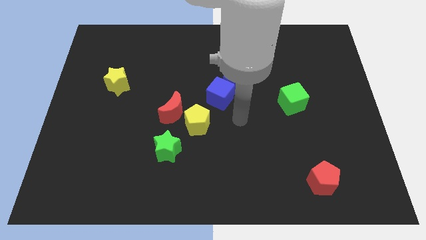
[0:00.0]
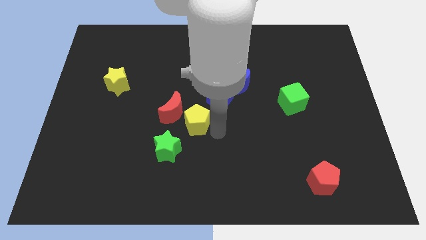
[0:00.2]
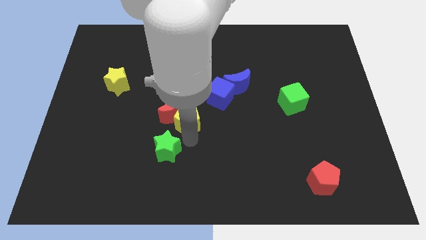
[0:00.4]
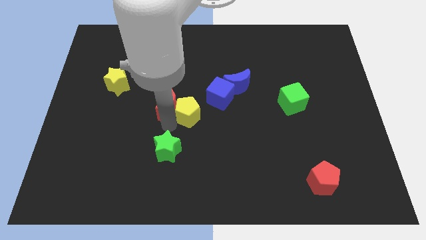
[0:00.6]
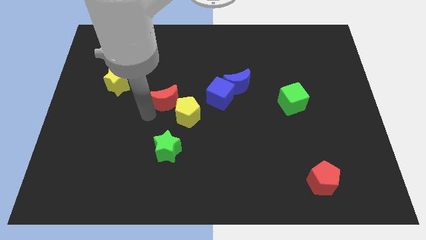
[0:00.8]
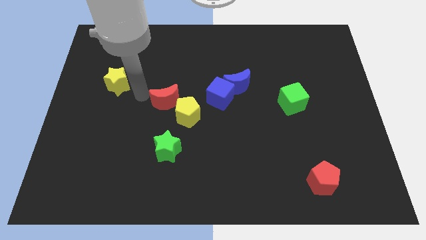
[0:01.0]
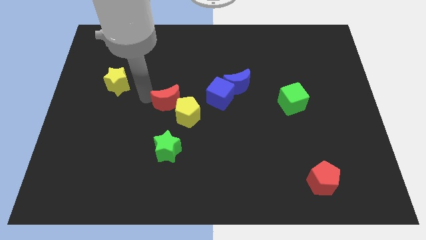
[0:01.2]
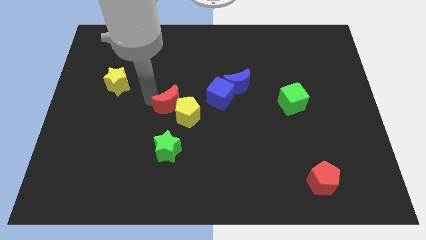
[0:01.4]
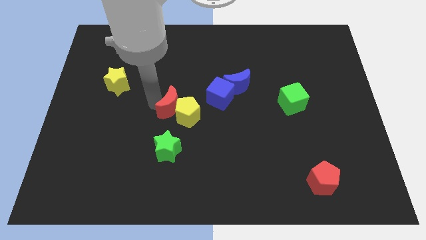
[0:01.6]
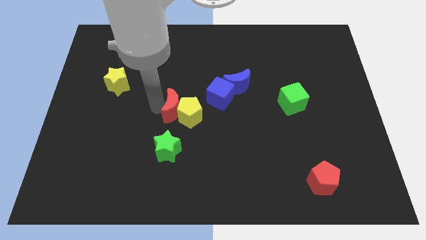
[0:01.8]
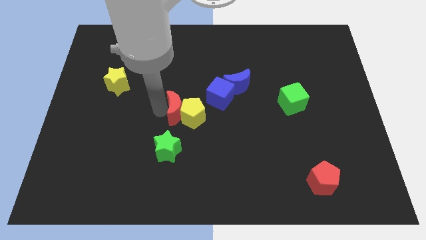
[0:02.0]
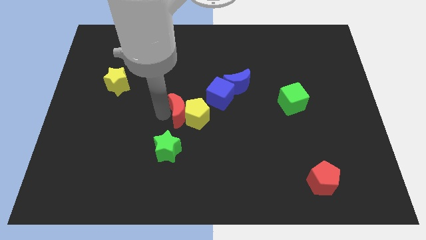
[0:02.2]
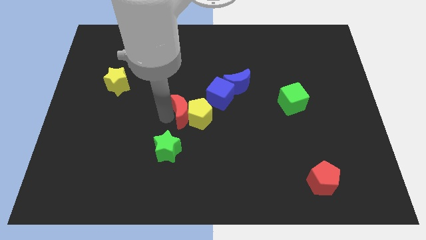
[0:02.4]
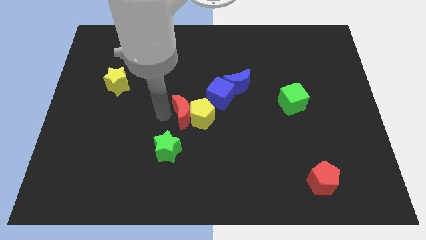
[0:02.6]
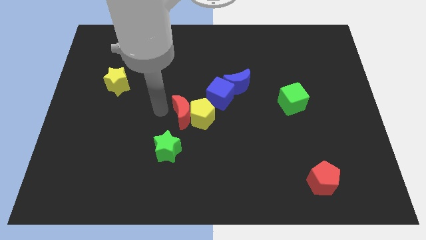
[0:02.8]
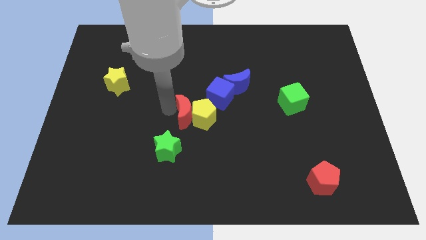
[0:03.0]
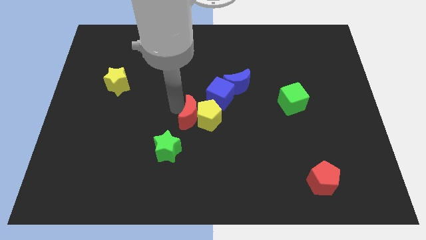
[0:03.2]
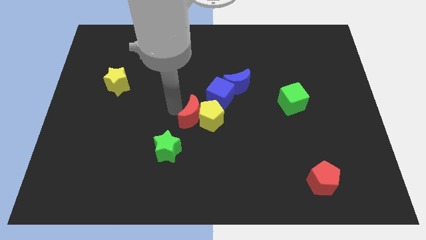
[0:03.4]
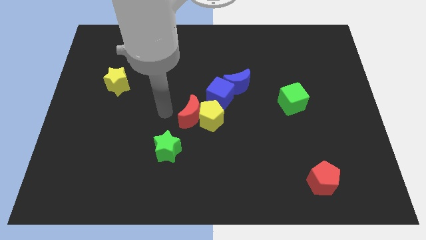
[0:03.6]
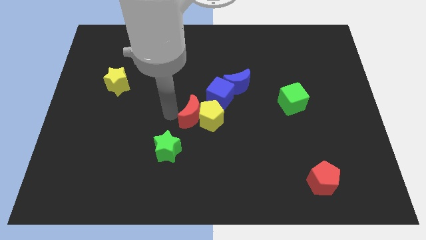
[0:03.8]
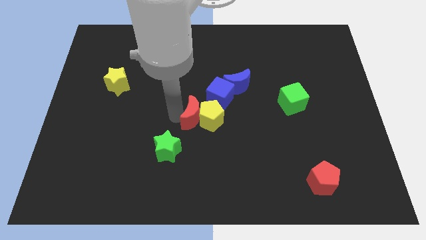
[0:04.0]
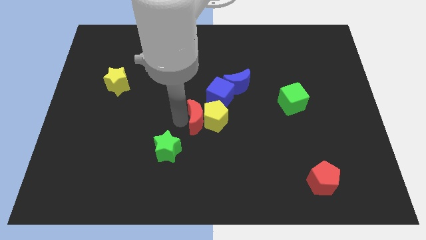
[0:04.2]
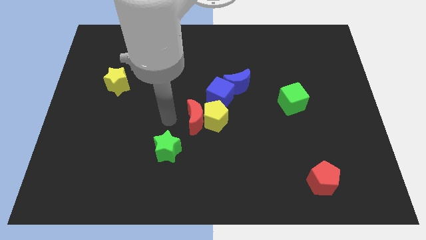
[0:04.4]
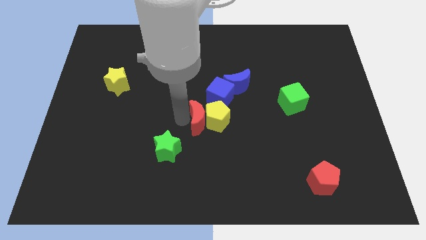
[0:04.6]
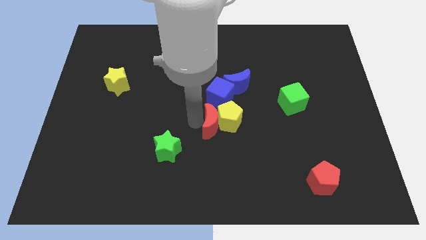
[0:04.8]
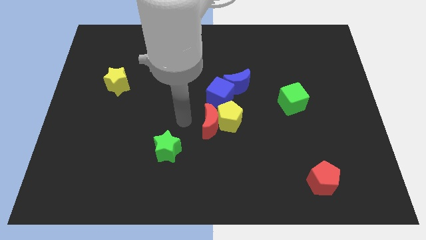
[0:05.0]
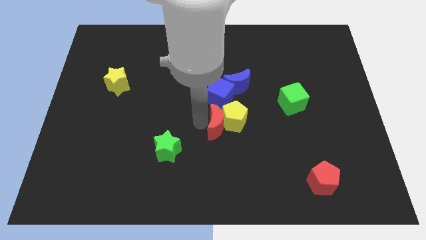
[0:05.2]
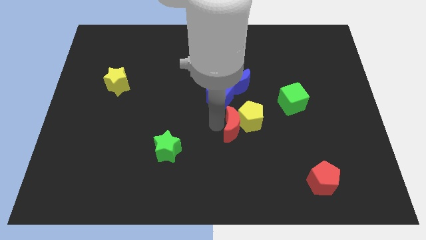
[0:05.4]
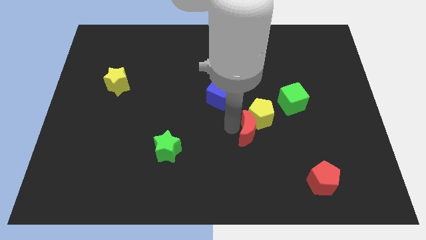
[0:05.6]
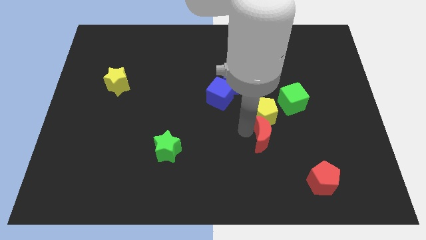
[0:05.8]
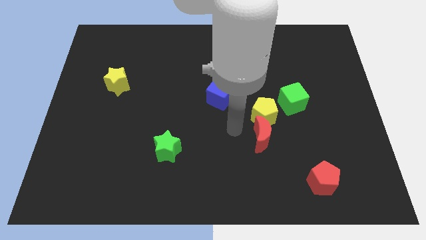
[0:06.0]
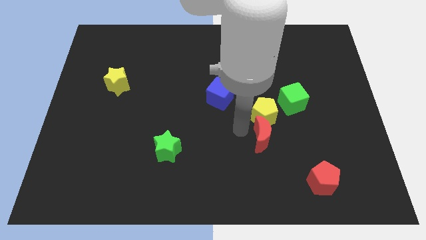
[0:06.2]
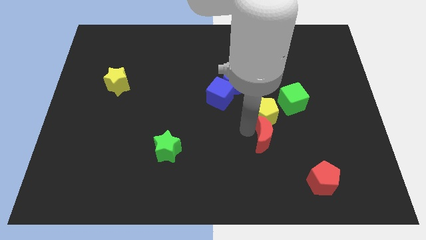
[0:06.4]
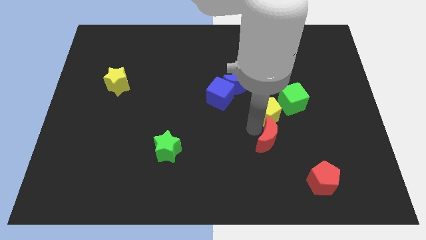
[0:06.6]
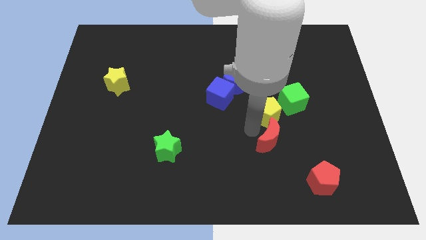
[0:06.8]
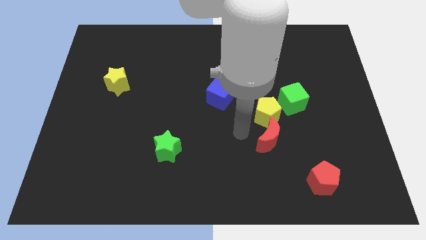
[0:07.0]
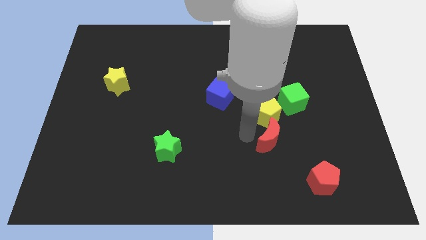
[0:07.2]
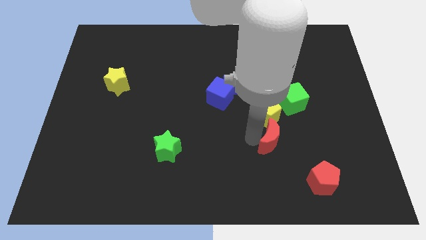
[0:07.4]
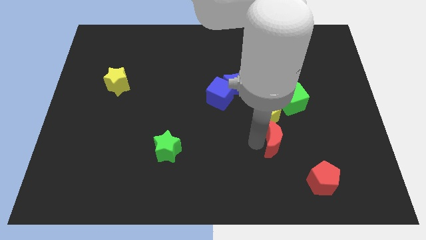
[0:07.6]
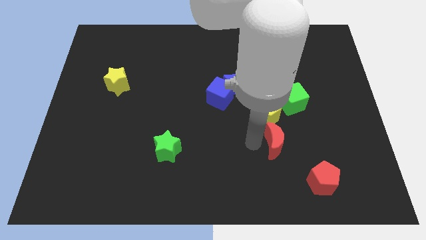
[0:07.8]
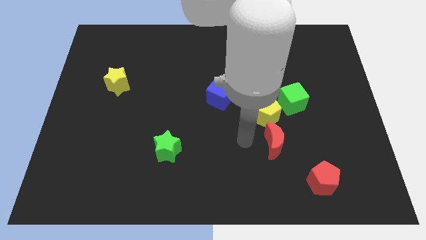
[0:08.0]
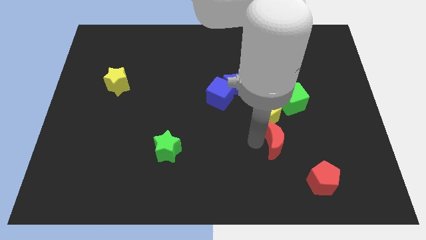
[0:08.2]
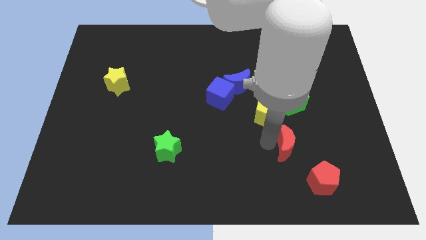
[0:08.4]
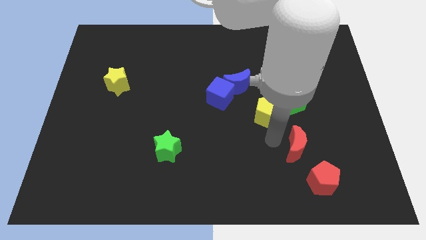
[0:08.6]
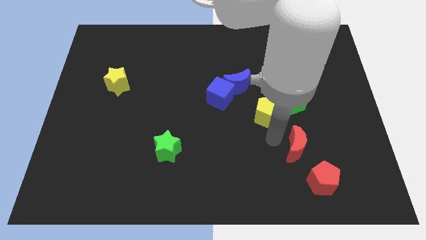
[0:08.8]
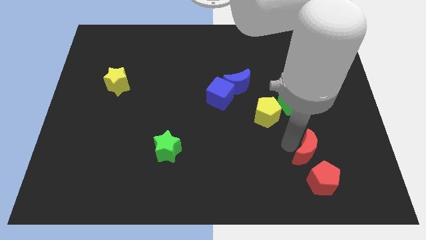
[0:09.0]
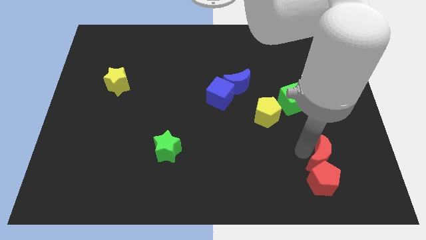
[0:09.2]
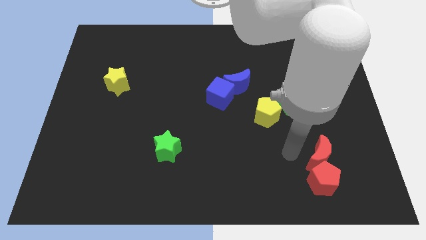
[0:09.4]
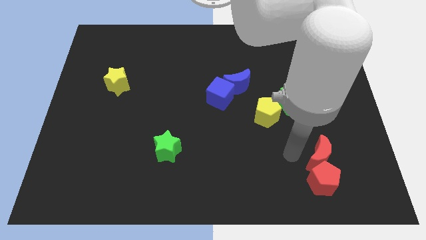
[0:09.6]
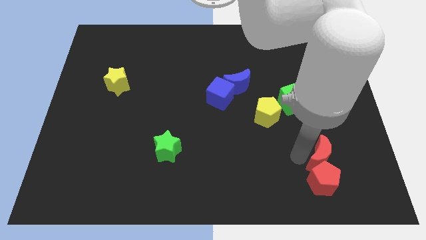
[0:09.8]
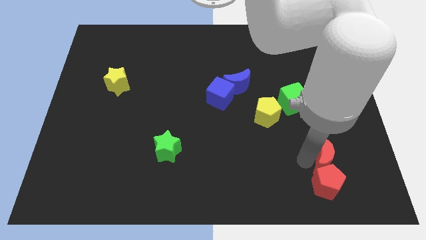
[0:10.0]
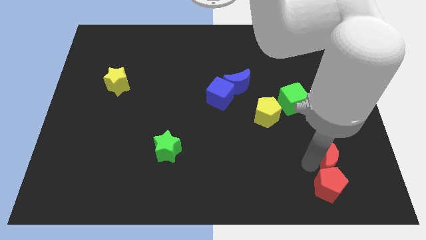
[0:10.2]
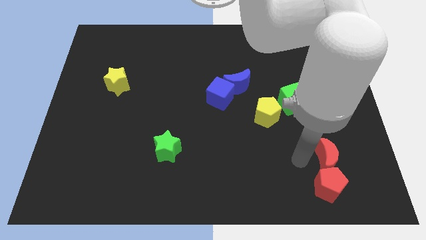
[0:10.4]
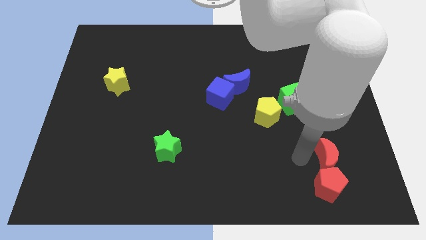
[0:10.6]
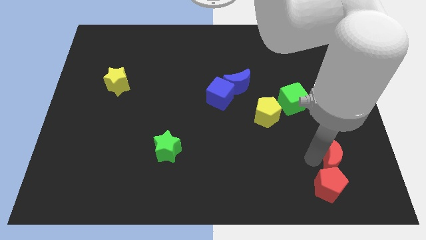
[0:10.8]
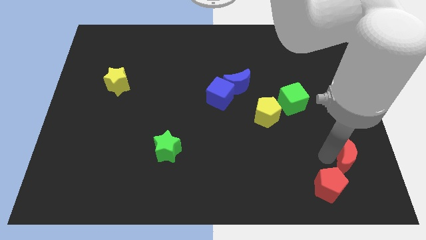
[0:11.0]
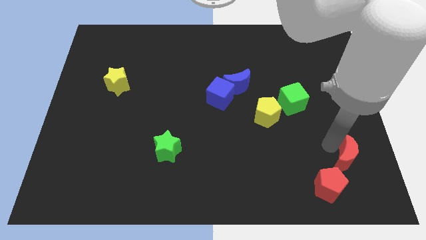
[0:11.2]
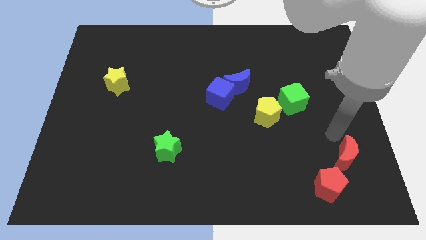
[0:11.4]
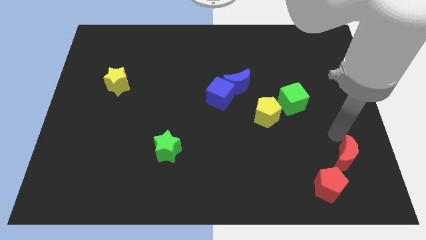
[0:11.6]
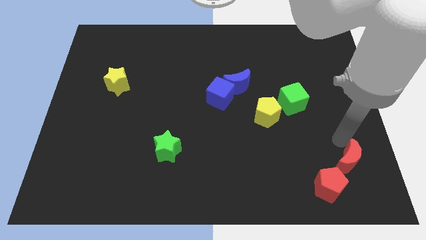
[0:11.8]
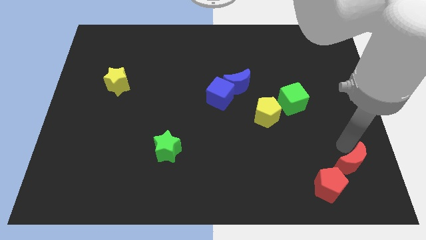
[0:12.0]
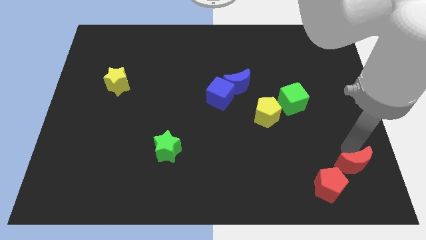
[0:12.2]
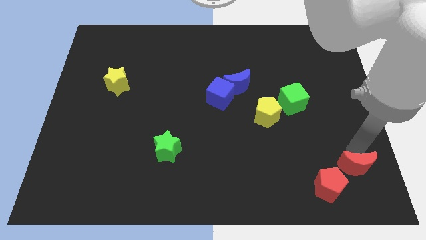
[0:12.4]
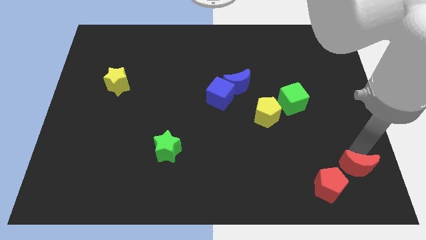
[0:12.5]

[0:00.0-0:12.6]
move the red moon to the bottom right of the board
